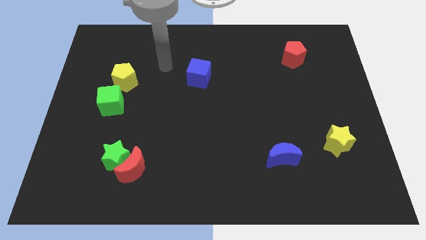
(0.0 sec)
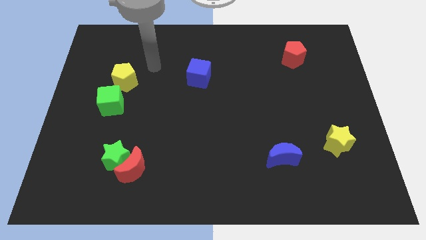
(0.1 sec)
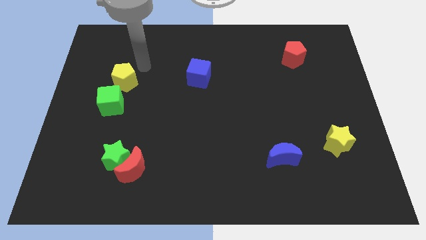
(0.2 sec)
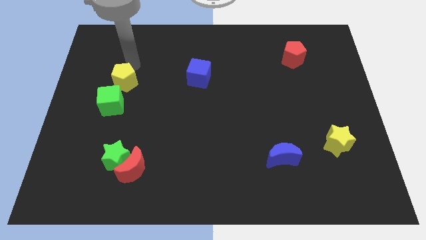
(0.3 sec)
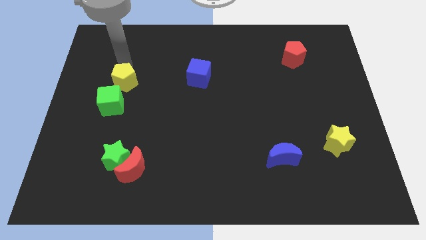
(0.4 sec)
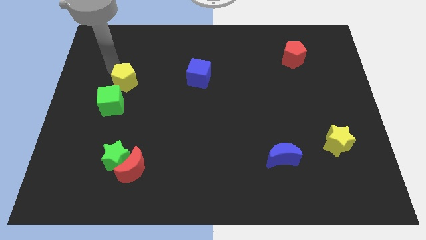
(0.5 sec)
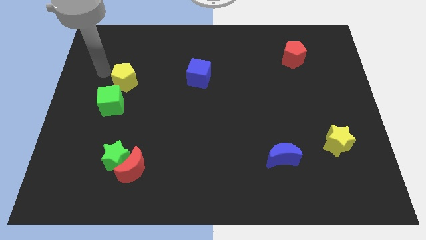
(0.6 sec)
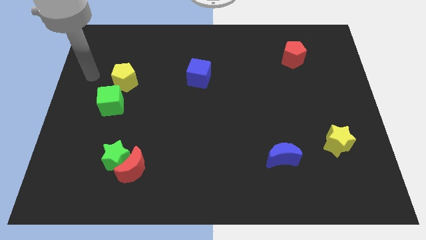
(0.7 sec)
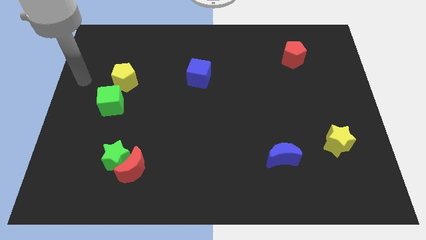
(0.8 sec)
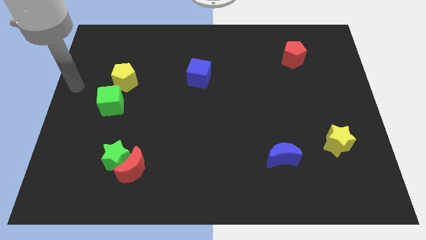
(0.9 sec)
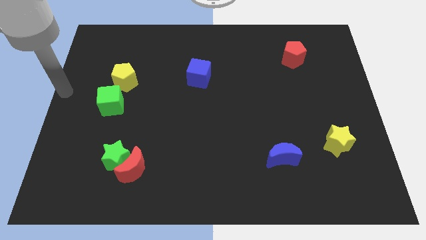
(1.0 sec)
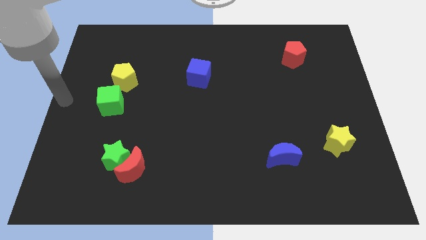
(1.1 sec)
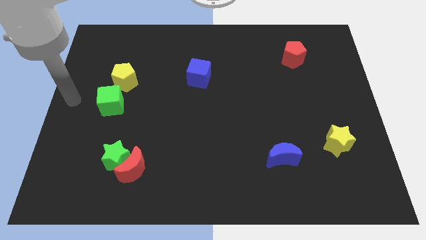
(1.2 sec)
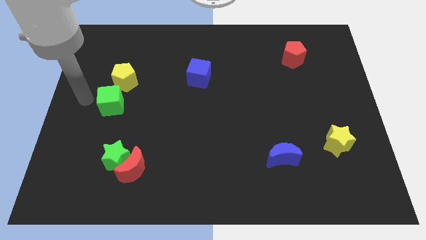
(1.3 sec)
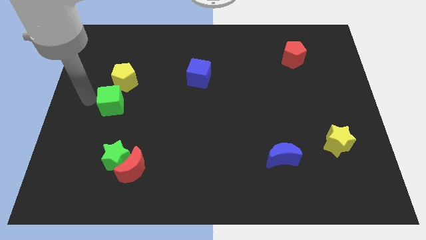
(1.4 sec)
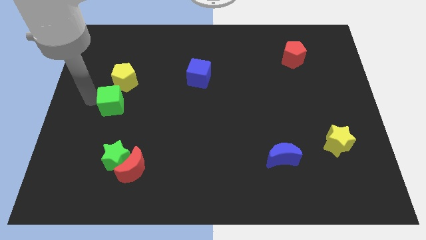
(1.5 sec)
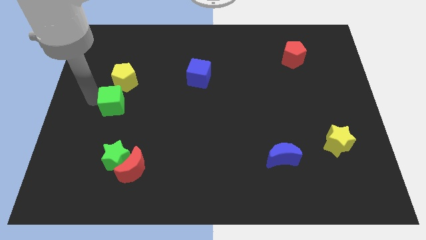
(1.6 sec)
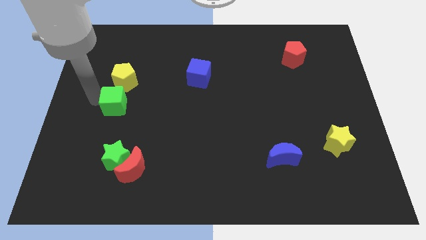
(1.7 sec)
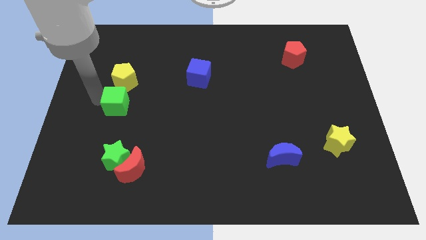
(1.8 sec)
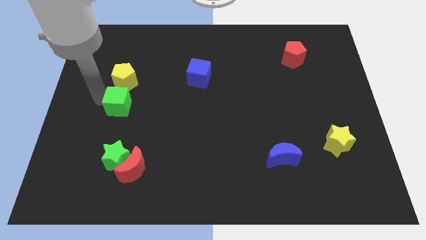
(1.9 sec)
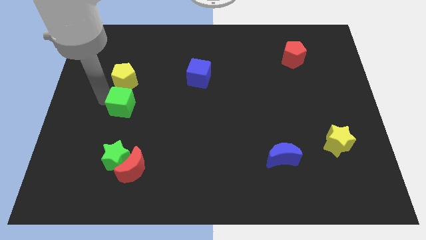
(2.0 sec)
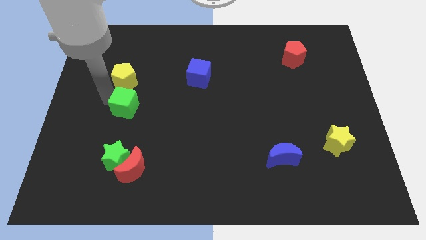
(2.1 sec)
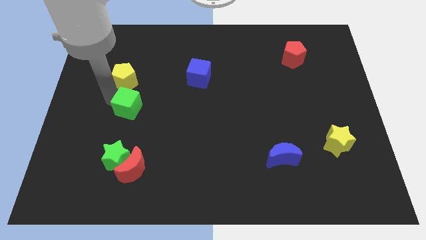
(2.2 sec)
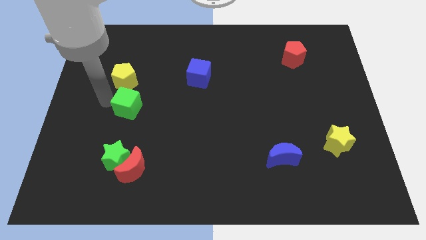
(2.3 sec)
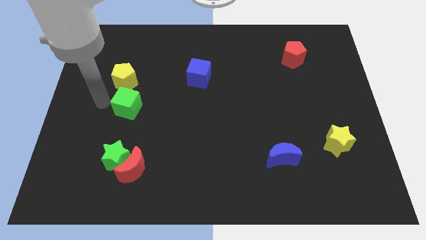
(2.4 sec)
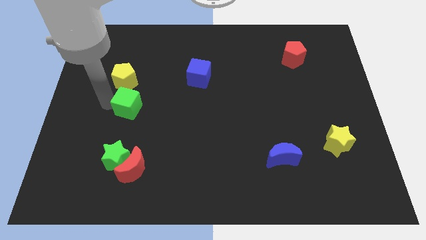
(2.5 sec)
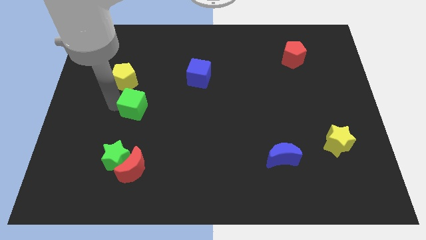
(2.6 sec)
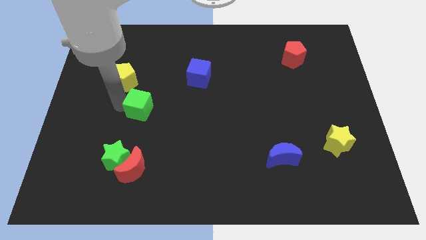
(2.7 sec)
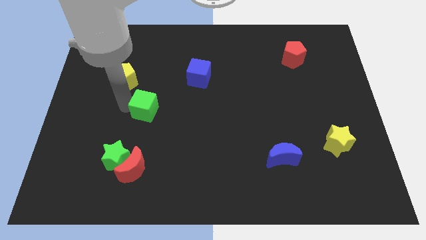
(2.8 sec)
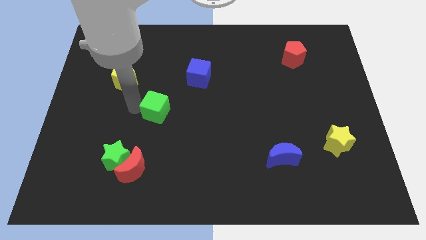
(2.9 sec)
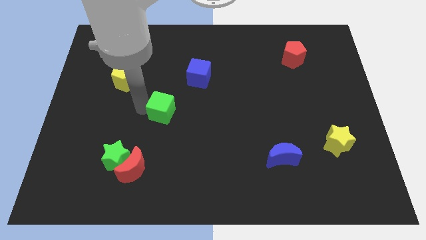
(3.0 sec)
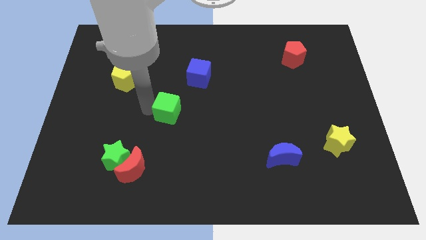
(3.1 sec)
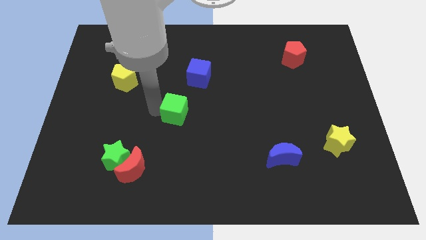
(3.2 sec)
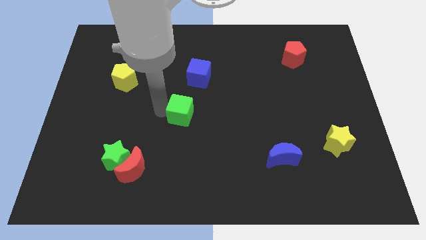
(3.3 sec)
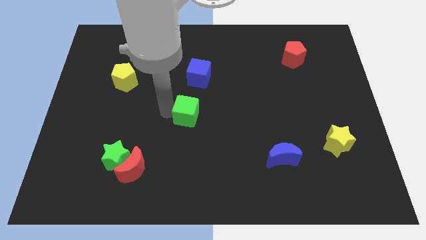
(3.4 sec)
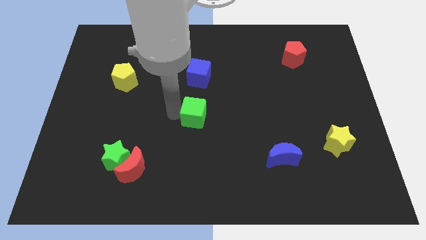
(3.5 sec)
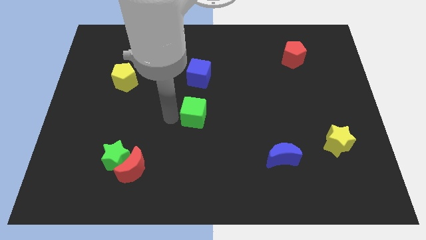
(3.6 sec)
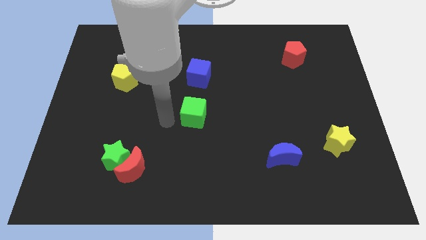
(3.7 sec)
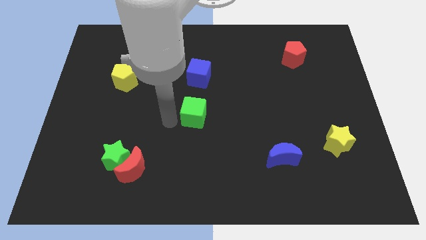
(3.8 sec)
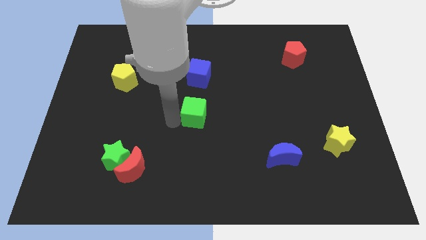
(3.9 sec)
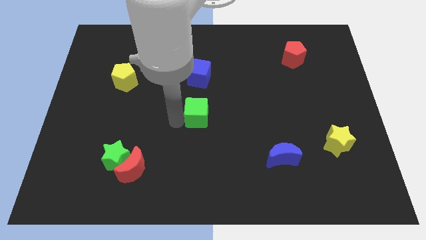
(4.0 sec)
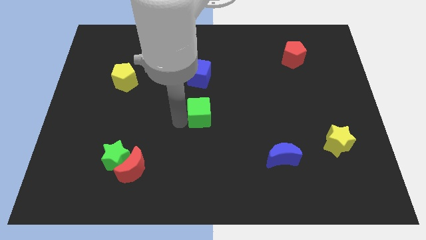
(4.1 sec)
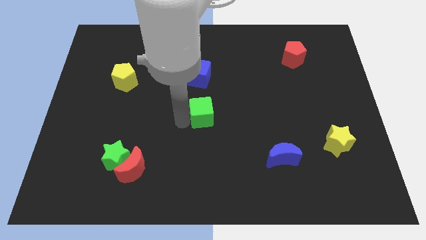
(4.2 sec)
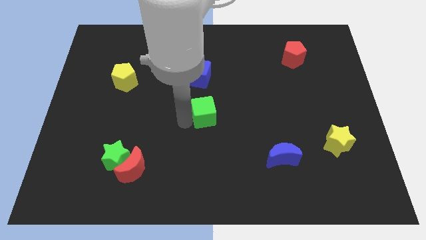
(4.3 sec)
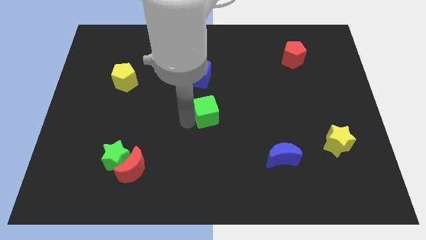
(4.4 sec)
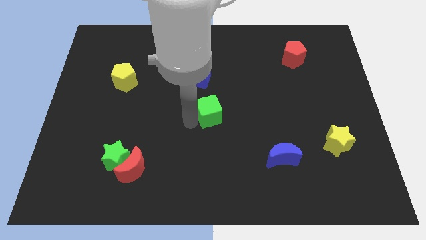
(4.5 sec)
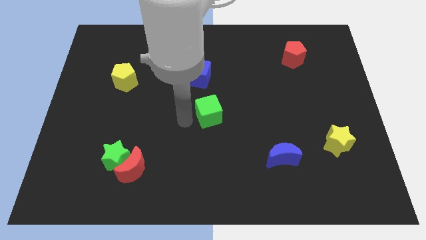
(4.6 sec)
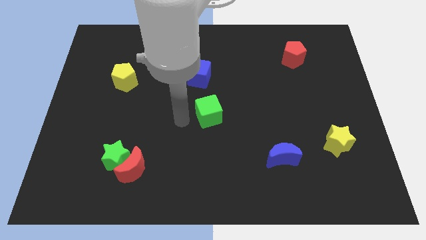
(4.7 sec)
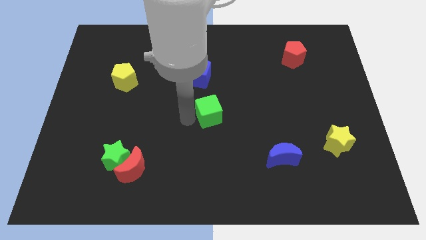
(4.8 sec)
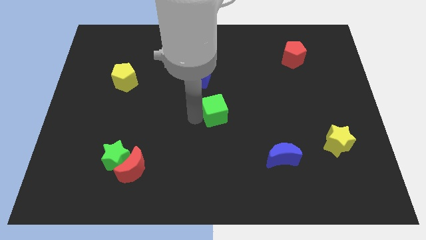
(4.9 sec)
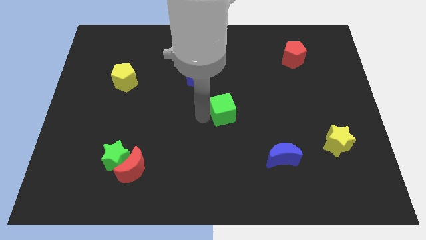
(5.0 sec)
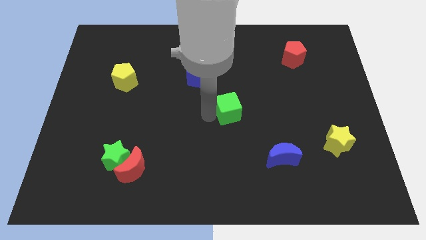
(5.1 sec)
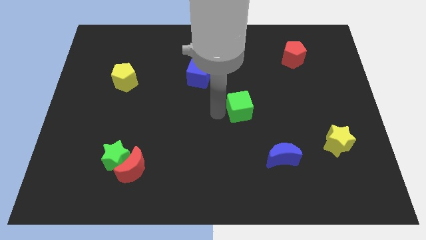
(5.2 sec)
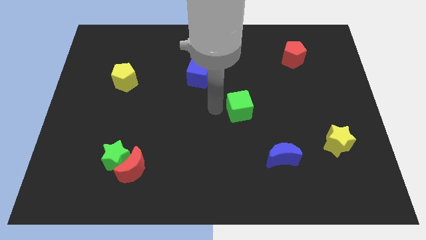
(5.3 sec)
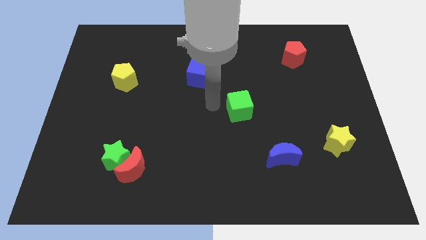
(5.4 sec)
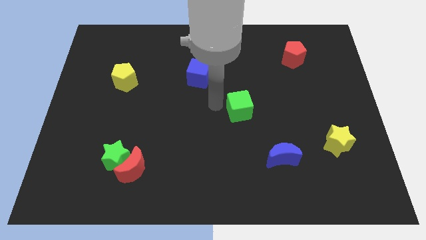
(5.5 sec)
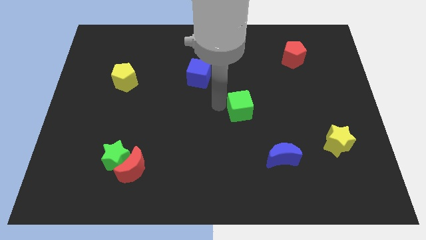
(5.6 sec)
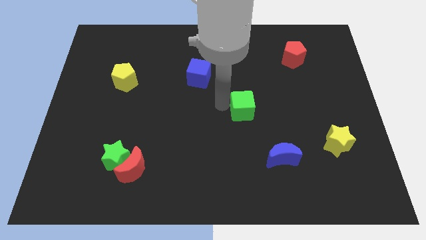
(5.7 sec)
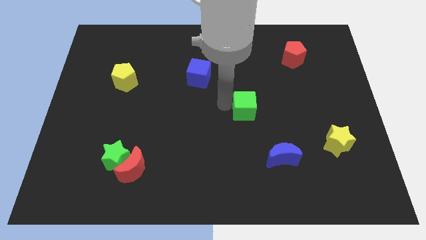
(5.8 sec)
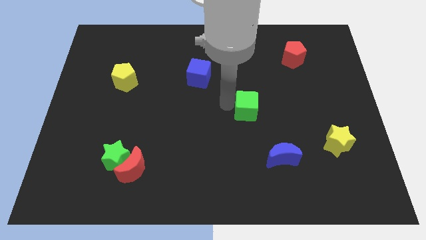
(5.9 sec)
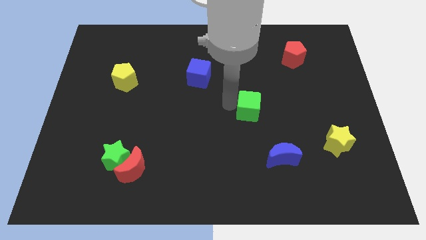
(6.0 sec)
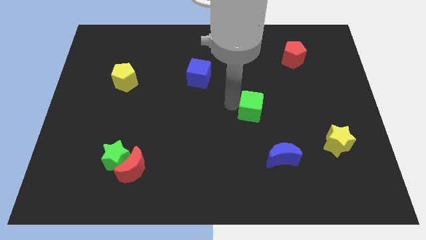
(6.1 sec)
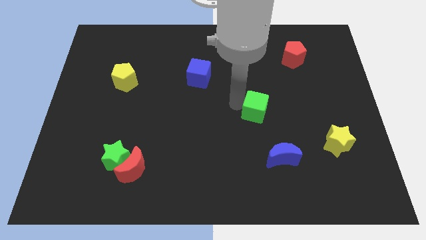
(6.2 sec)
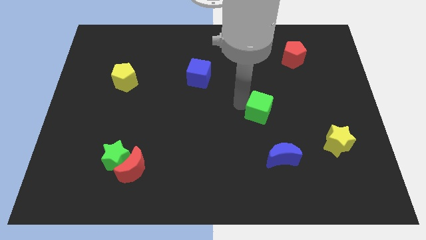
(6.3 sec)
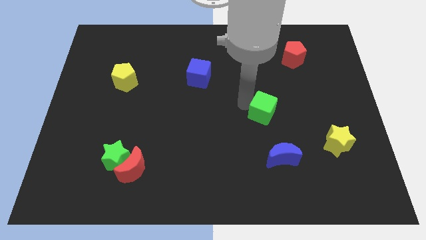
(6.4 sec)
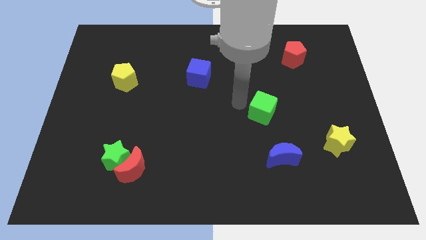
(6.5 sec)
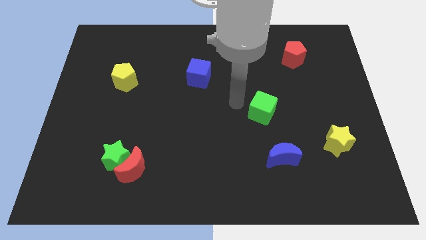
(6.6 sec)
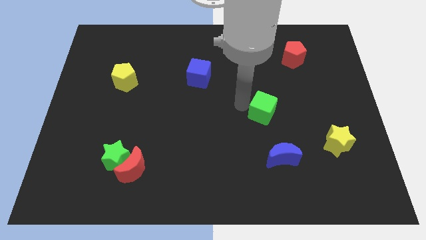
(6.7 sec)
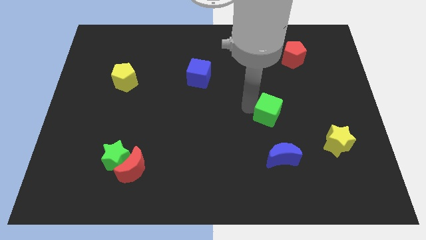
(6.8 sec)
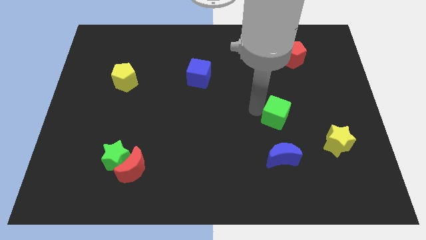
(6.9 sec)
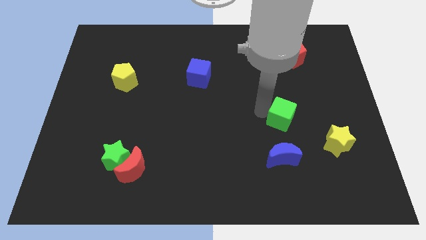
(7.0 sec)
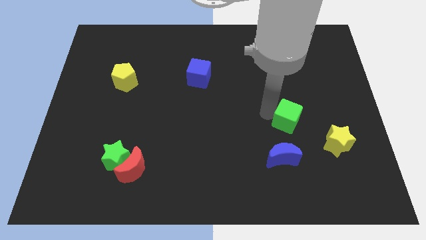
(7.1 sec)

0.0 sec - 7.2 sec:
push the green cube to the top left side of the yellow star
